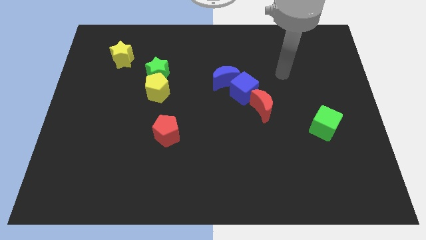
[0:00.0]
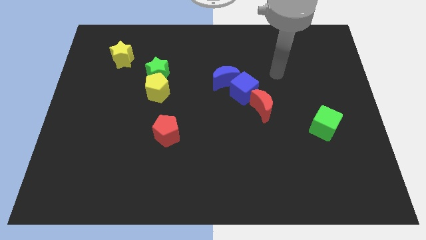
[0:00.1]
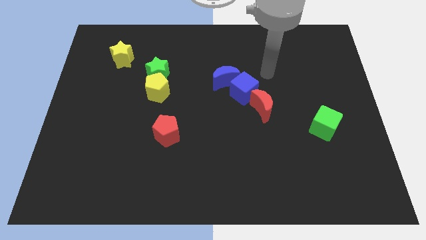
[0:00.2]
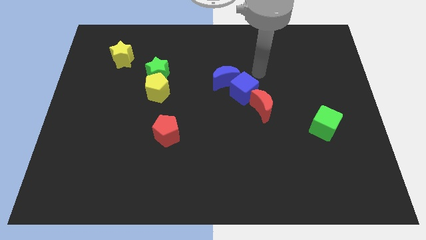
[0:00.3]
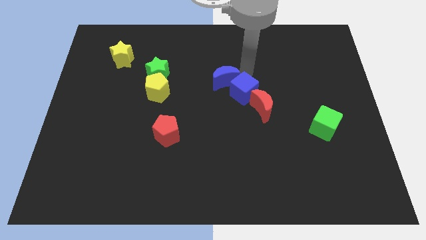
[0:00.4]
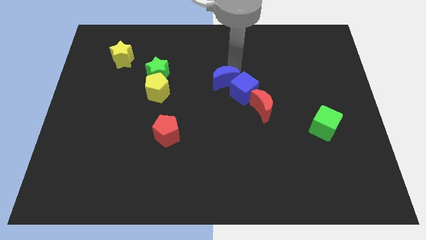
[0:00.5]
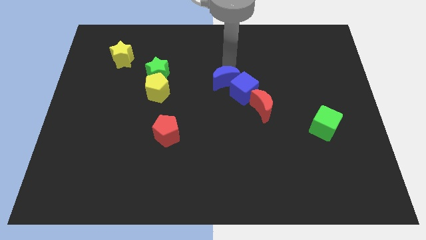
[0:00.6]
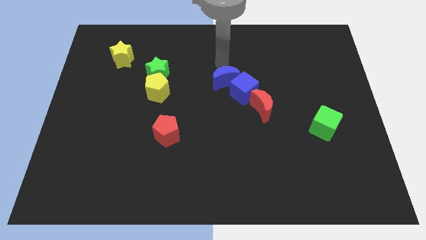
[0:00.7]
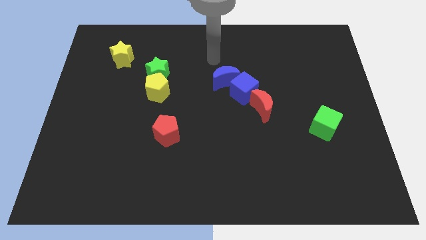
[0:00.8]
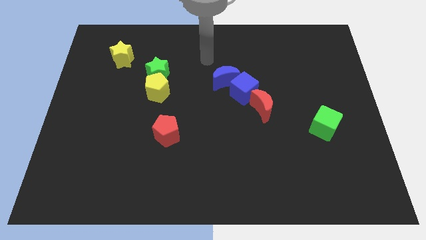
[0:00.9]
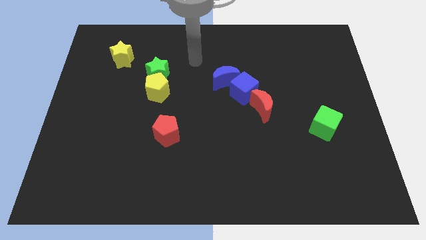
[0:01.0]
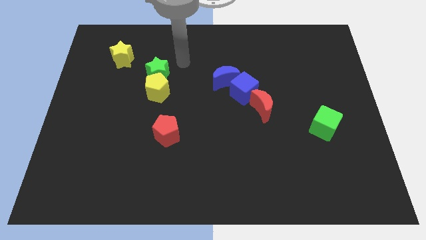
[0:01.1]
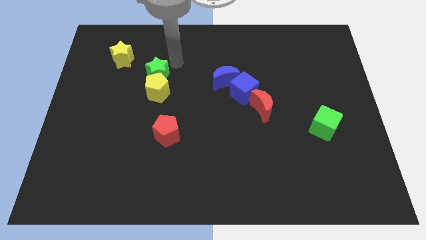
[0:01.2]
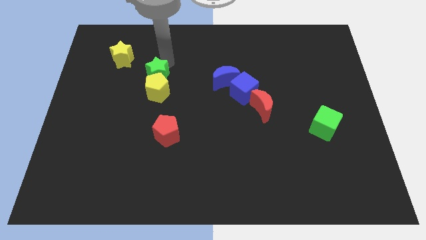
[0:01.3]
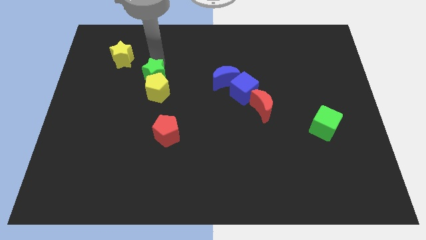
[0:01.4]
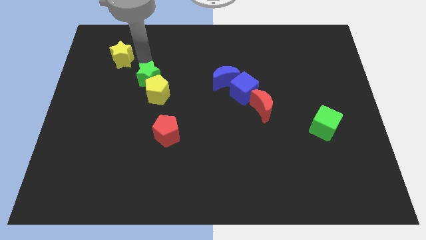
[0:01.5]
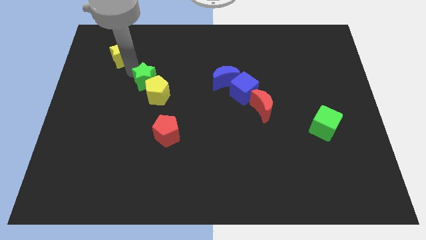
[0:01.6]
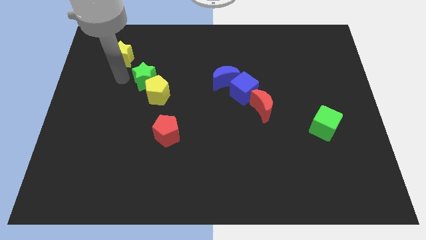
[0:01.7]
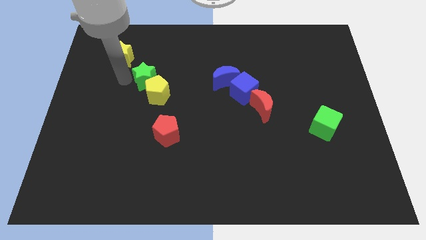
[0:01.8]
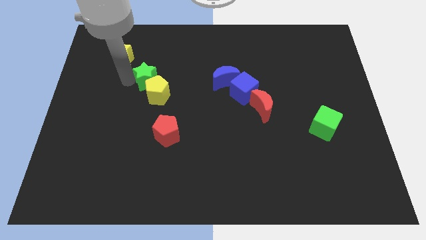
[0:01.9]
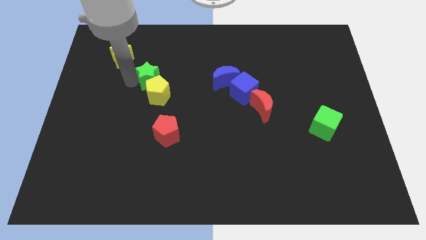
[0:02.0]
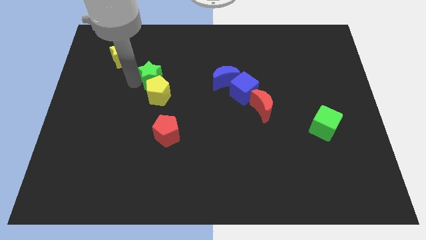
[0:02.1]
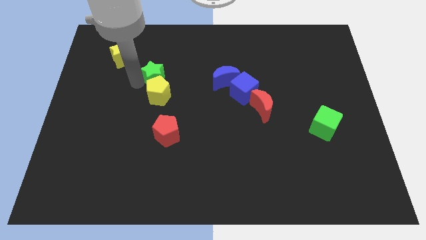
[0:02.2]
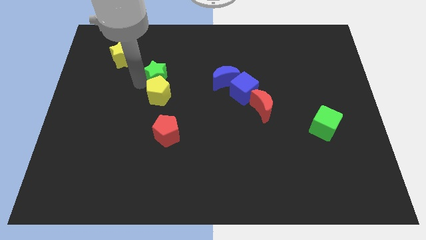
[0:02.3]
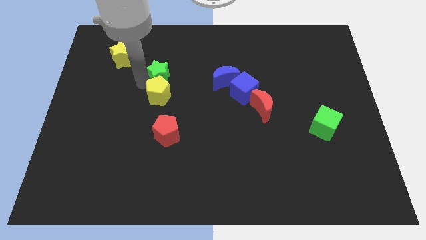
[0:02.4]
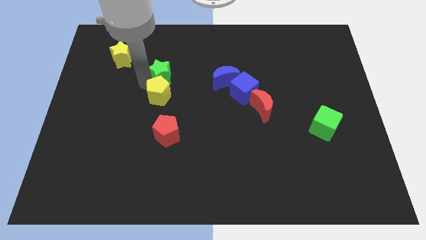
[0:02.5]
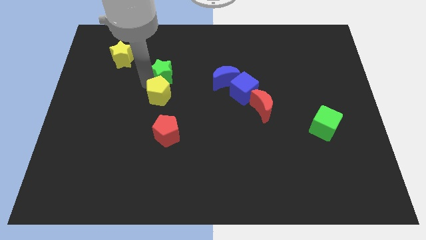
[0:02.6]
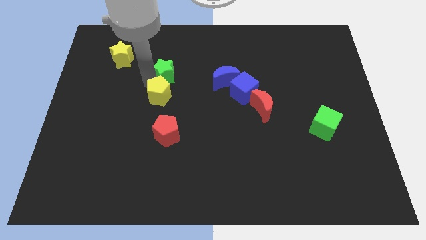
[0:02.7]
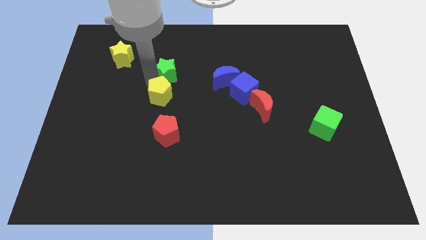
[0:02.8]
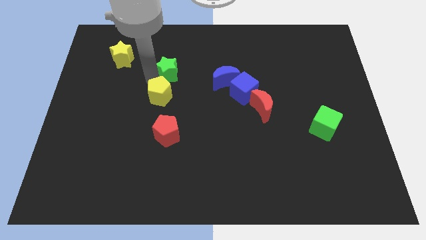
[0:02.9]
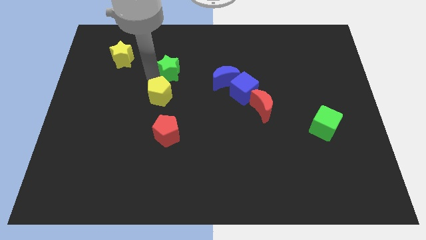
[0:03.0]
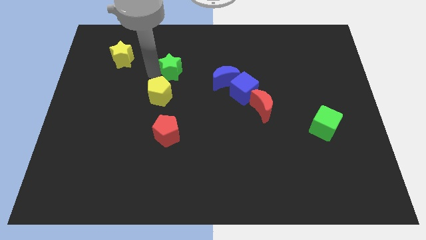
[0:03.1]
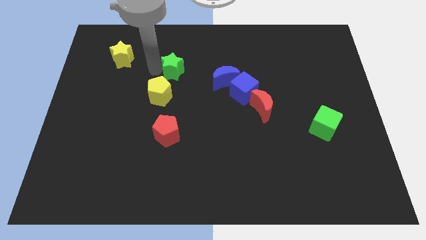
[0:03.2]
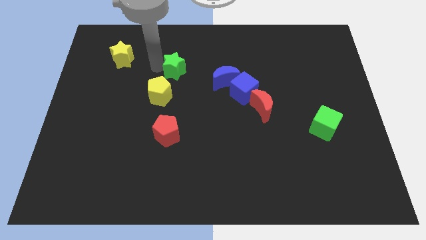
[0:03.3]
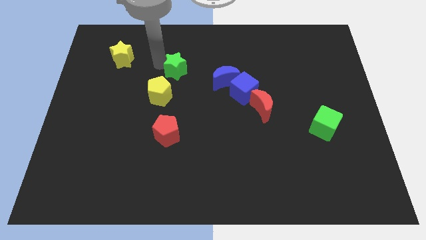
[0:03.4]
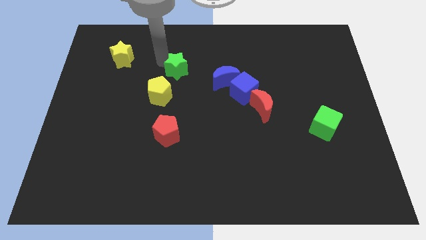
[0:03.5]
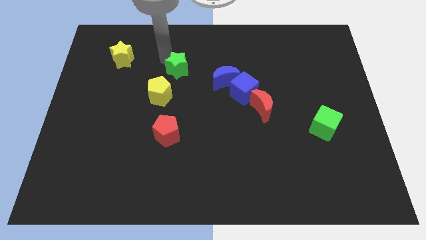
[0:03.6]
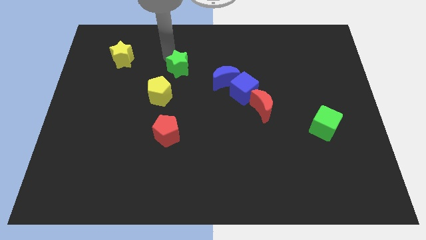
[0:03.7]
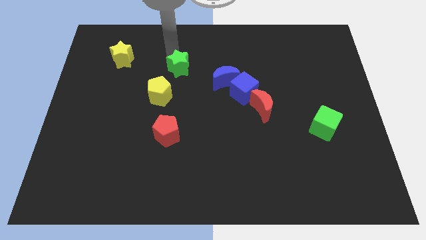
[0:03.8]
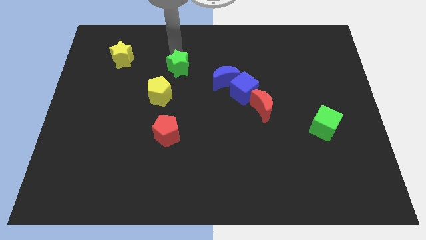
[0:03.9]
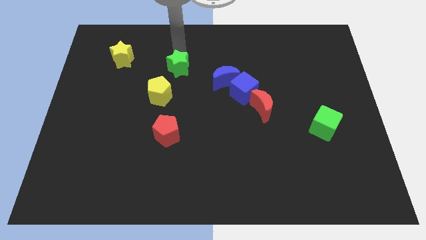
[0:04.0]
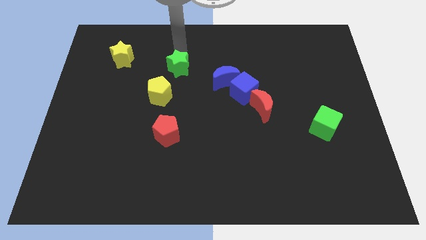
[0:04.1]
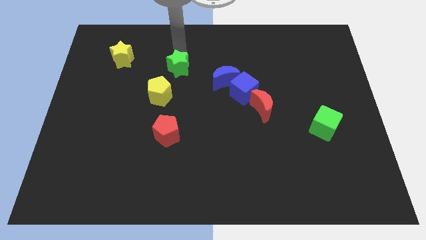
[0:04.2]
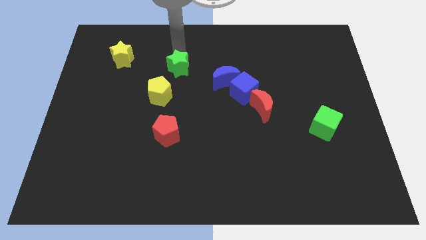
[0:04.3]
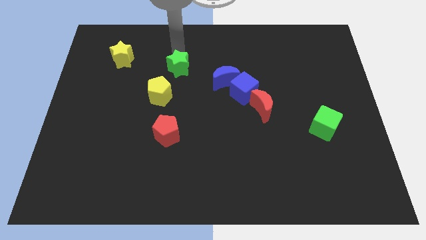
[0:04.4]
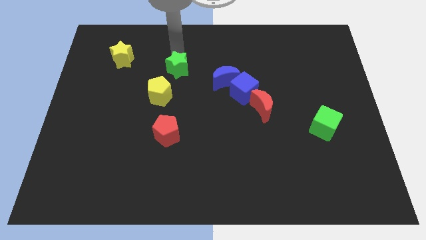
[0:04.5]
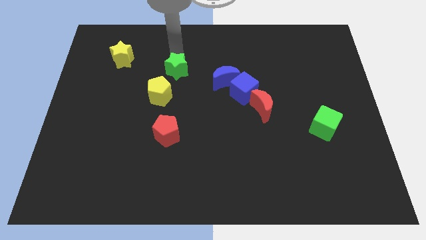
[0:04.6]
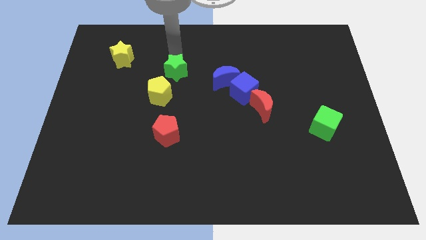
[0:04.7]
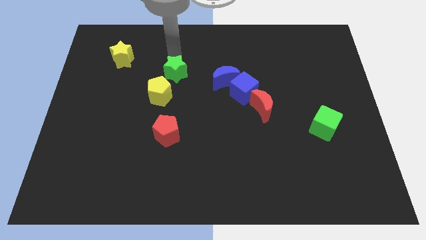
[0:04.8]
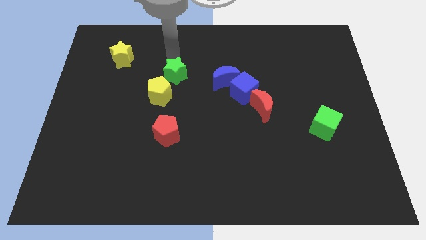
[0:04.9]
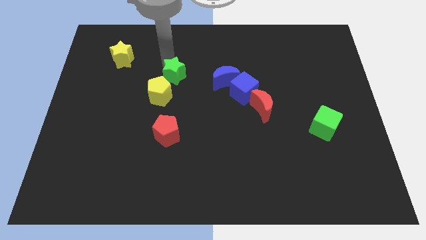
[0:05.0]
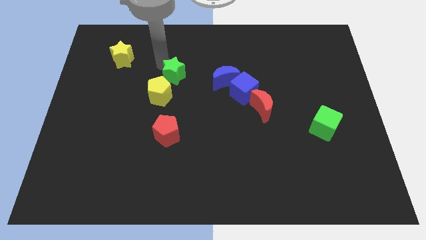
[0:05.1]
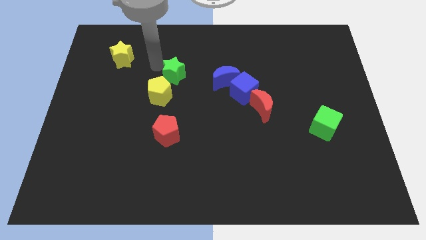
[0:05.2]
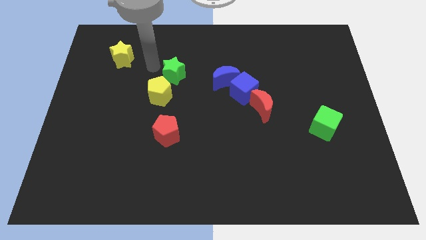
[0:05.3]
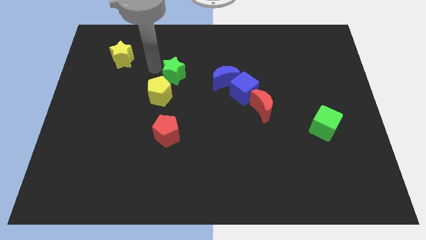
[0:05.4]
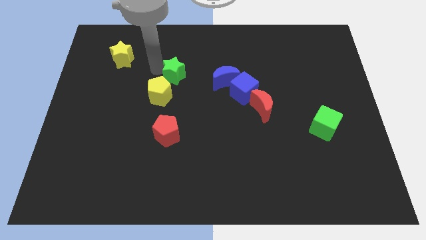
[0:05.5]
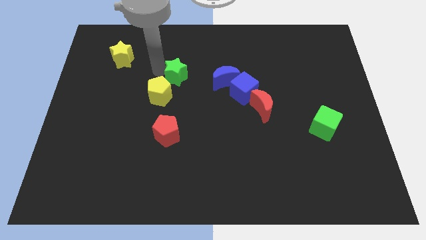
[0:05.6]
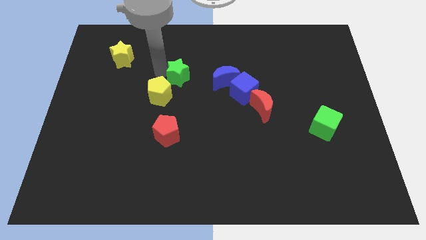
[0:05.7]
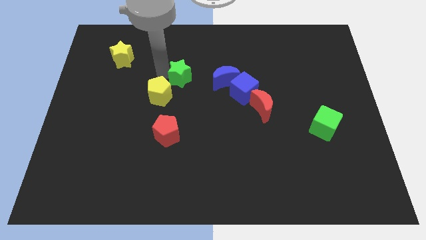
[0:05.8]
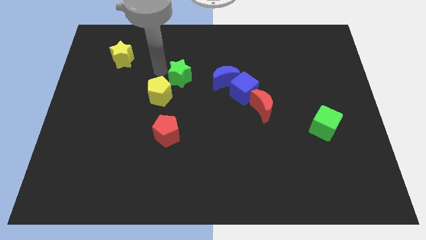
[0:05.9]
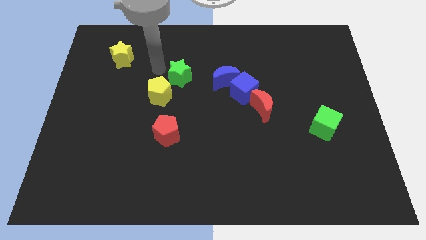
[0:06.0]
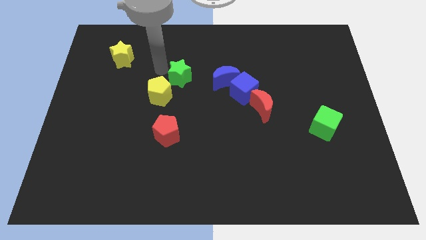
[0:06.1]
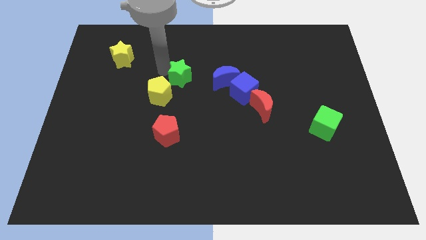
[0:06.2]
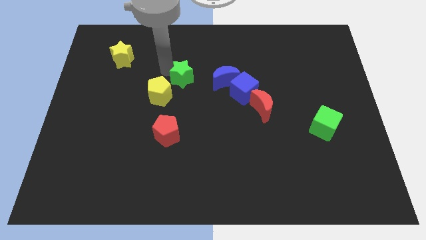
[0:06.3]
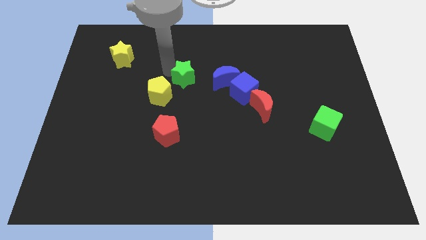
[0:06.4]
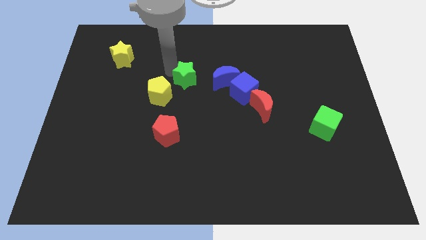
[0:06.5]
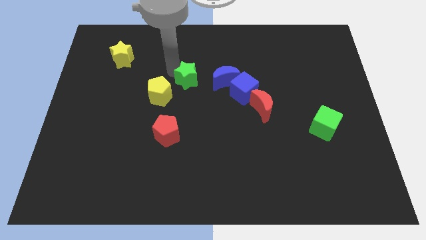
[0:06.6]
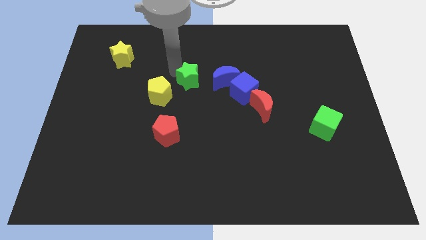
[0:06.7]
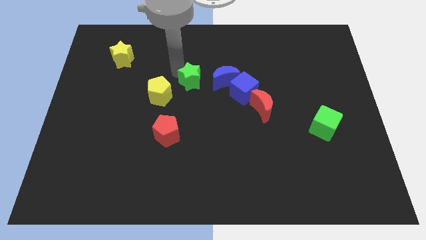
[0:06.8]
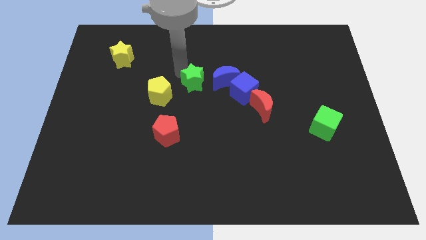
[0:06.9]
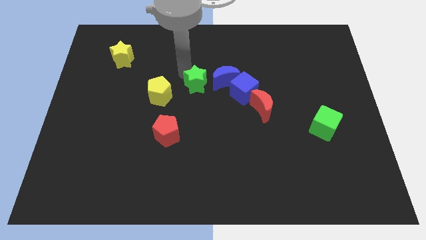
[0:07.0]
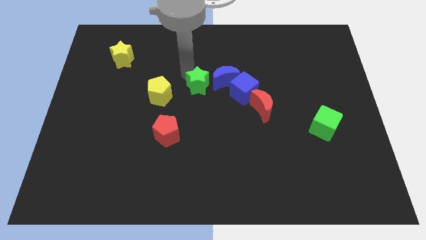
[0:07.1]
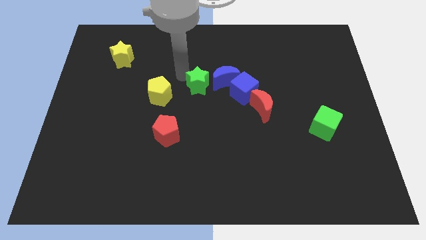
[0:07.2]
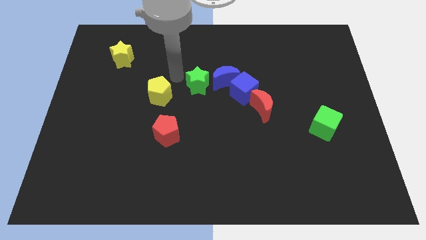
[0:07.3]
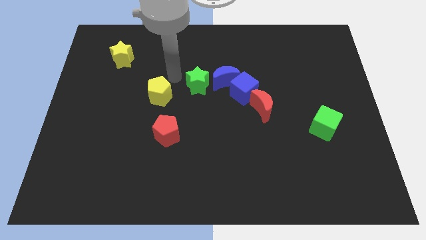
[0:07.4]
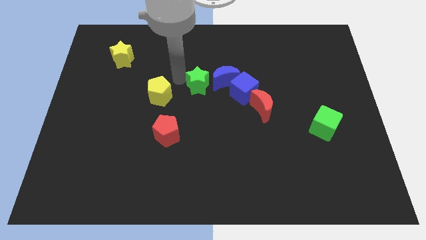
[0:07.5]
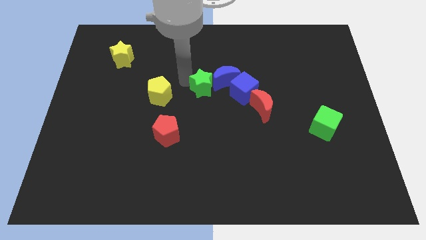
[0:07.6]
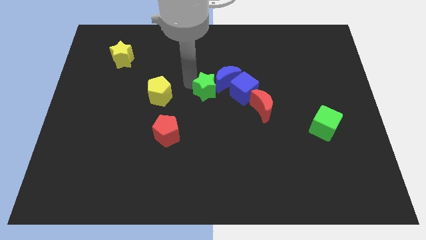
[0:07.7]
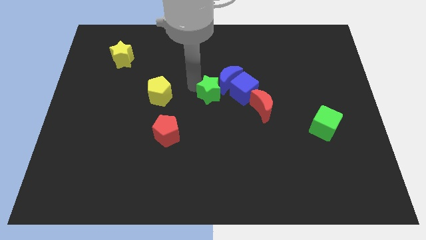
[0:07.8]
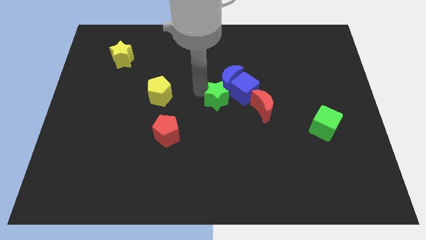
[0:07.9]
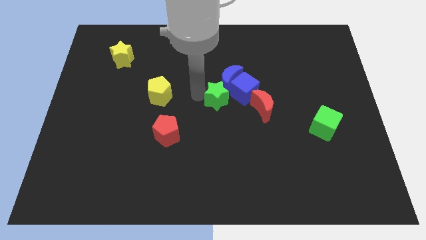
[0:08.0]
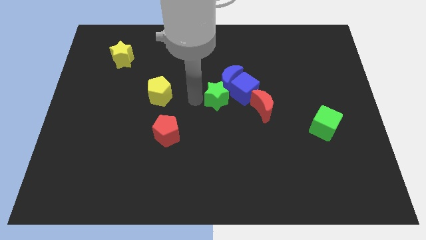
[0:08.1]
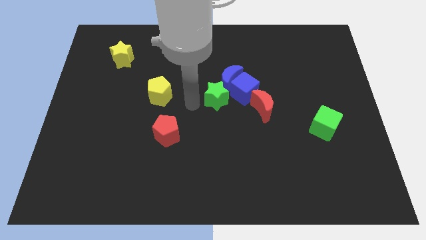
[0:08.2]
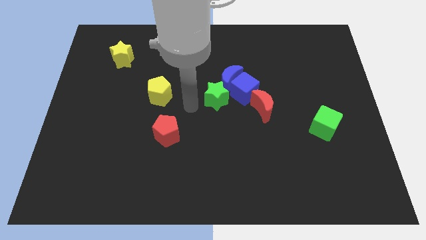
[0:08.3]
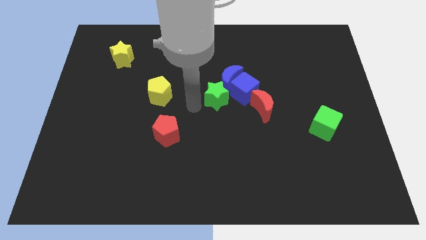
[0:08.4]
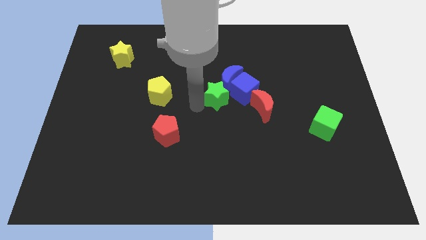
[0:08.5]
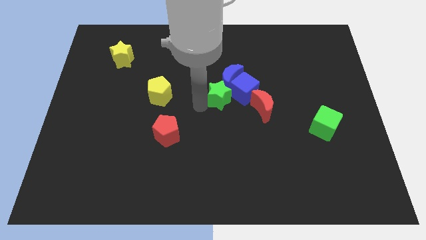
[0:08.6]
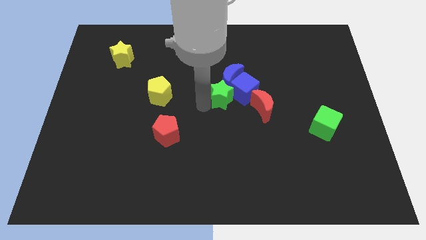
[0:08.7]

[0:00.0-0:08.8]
move the green star to the blue cube
